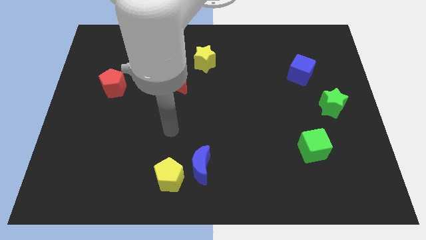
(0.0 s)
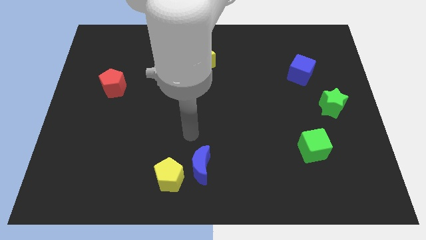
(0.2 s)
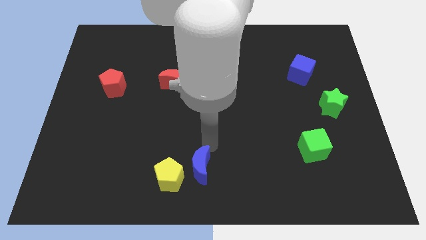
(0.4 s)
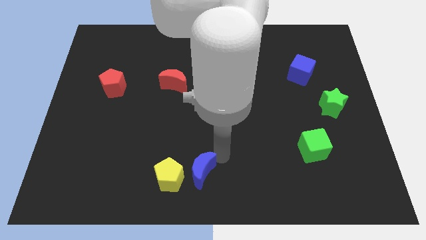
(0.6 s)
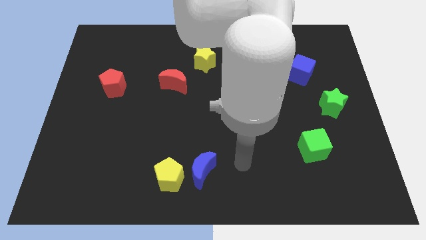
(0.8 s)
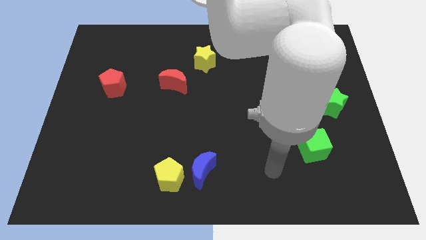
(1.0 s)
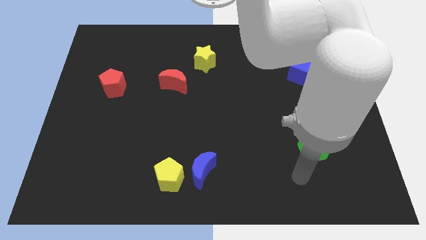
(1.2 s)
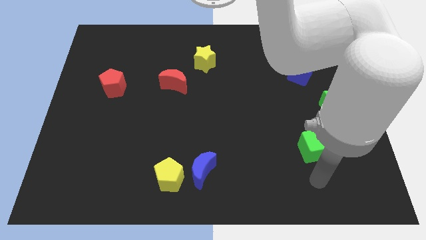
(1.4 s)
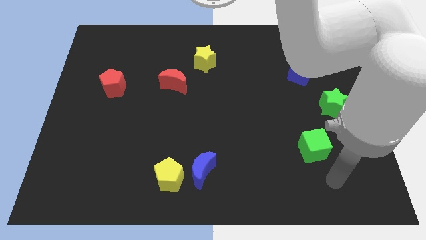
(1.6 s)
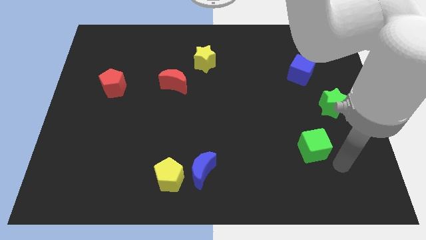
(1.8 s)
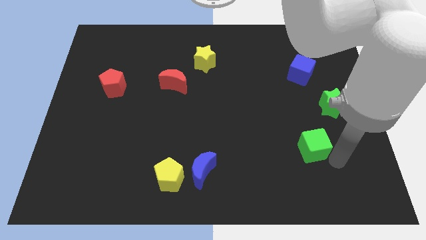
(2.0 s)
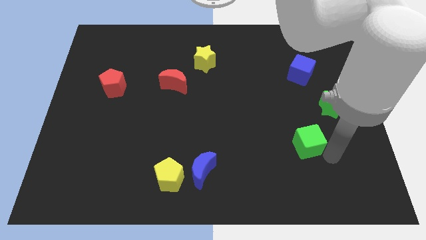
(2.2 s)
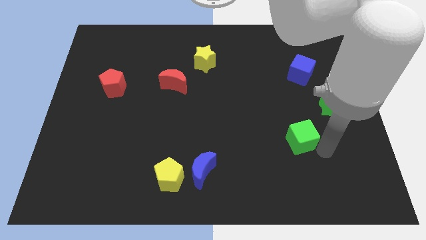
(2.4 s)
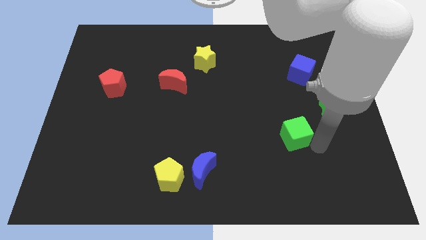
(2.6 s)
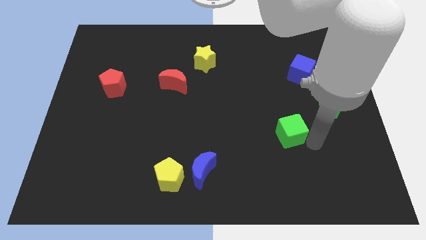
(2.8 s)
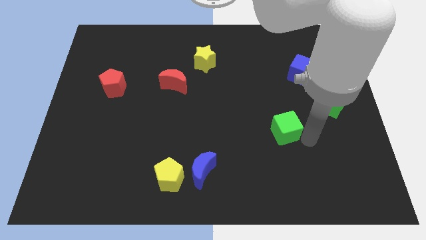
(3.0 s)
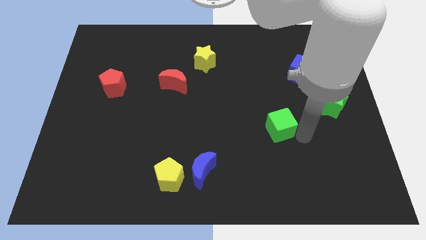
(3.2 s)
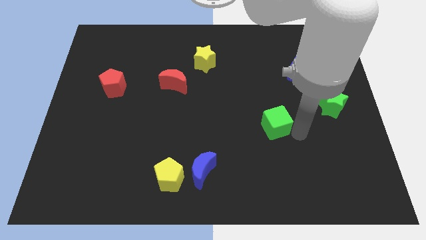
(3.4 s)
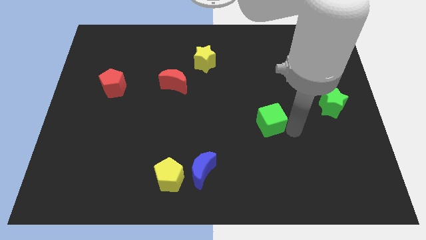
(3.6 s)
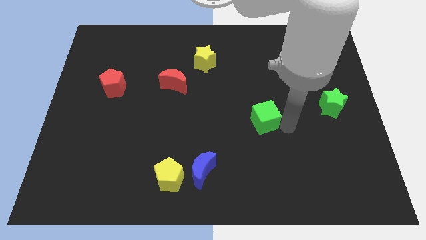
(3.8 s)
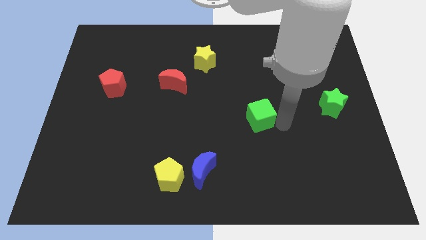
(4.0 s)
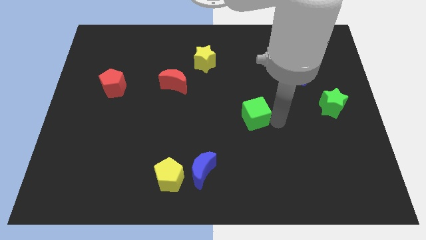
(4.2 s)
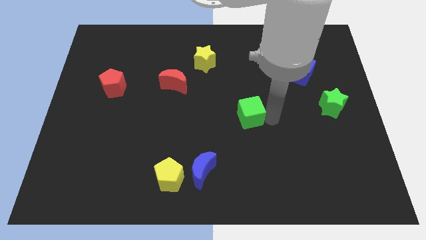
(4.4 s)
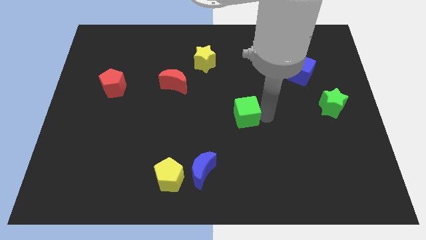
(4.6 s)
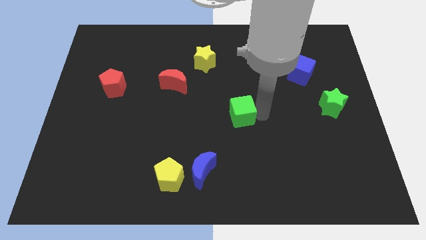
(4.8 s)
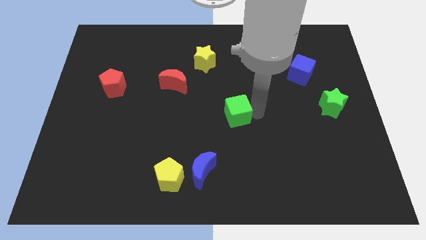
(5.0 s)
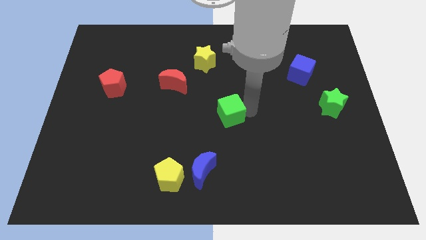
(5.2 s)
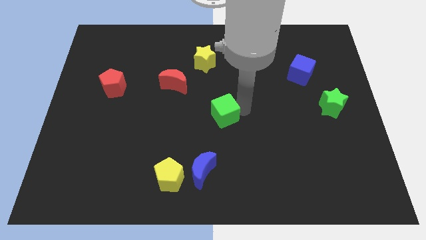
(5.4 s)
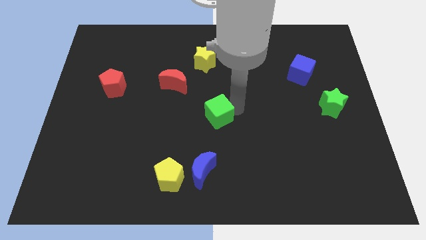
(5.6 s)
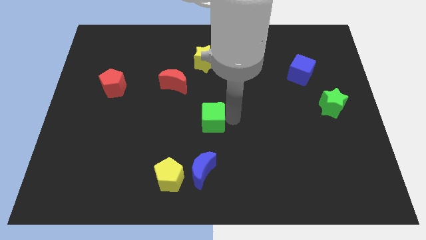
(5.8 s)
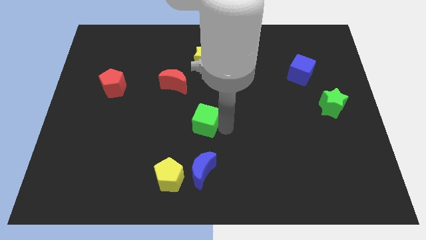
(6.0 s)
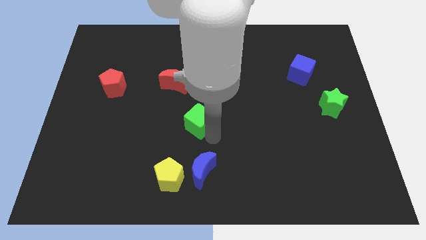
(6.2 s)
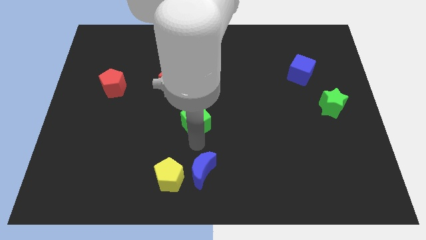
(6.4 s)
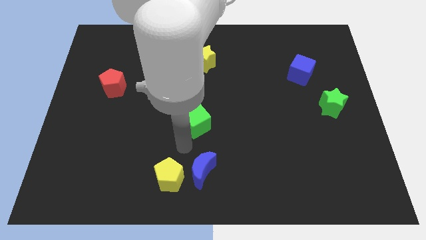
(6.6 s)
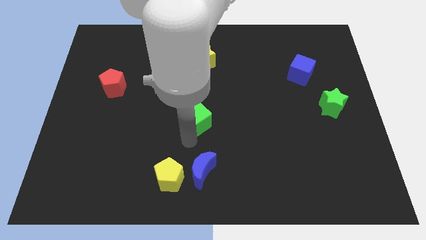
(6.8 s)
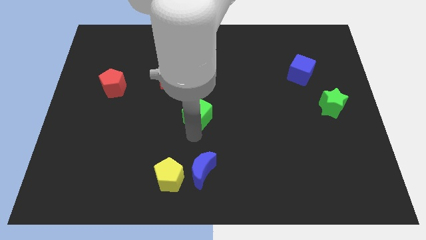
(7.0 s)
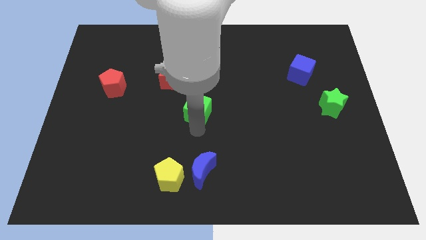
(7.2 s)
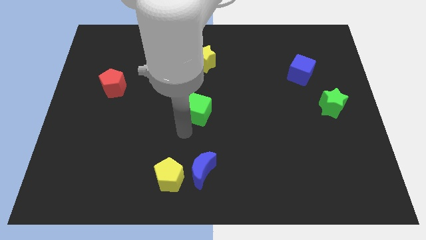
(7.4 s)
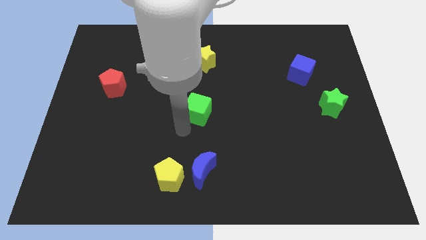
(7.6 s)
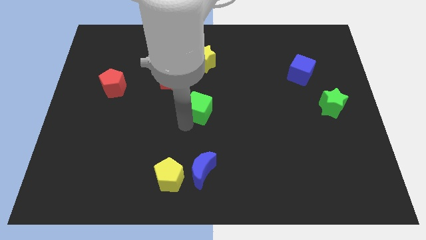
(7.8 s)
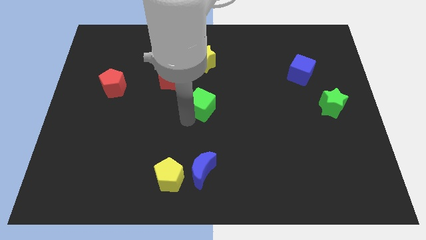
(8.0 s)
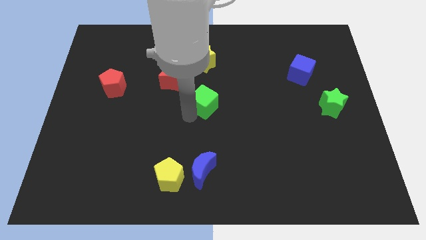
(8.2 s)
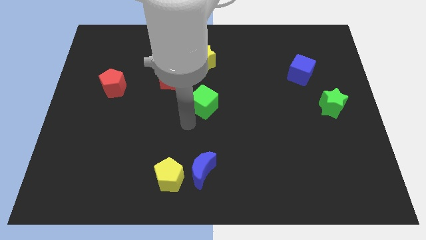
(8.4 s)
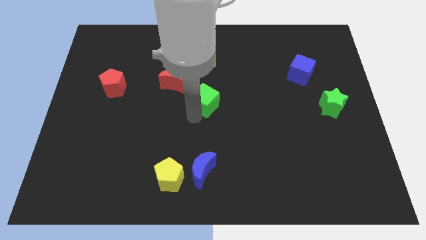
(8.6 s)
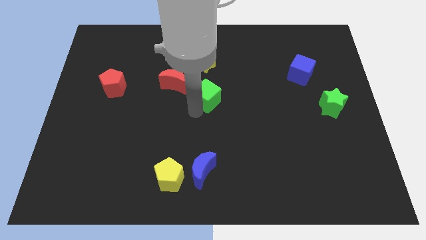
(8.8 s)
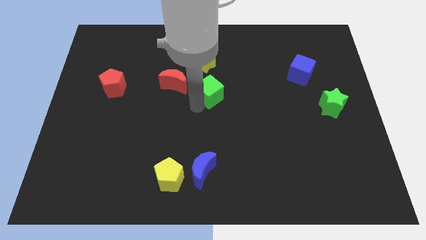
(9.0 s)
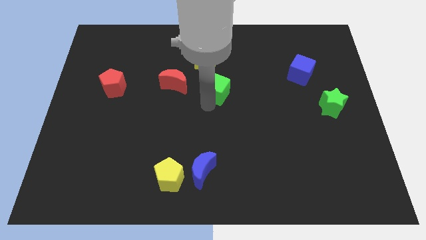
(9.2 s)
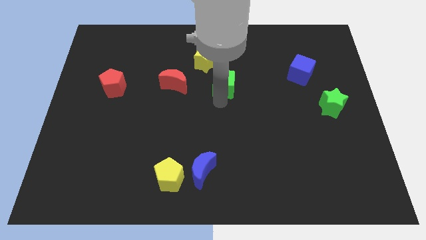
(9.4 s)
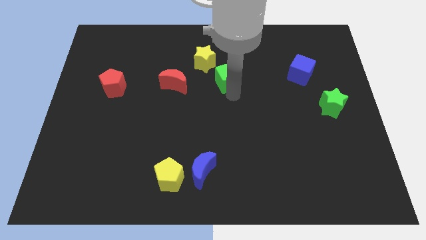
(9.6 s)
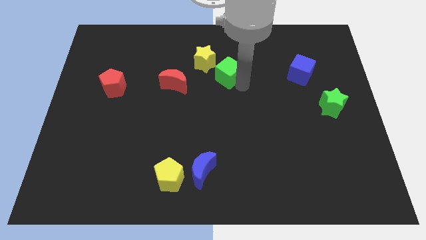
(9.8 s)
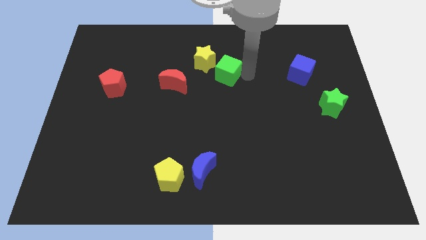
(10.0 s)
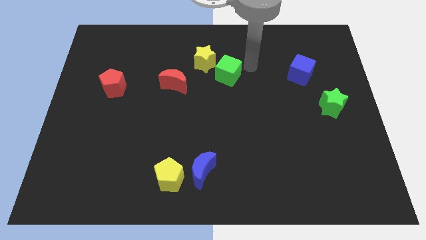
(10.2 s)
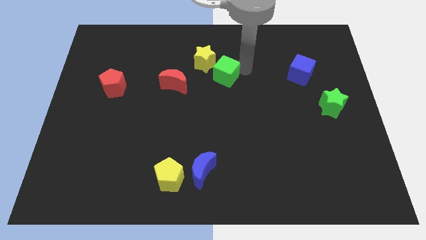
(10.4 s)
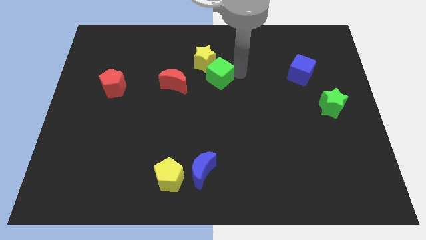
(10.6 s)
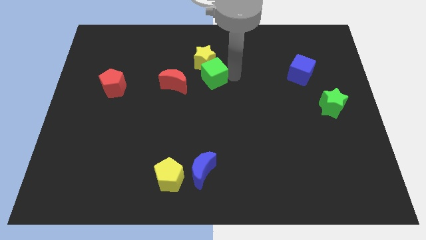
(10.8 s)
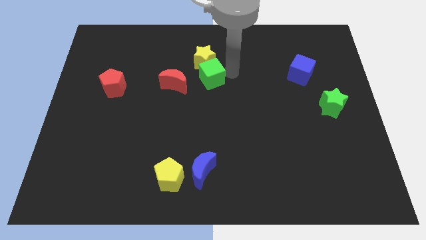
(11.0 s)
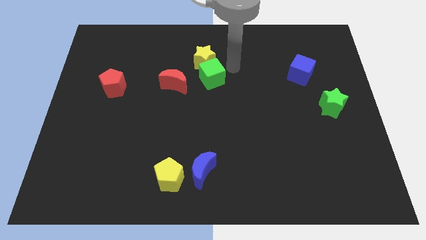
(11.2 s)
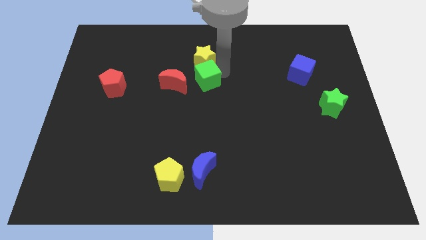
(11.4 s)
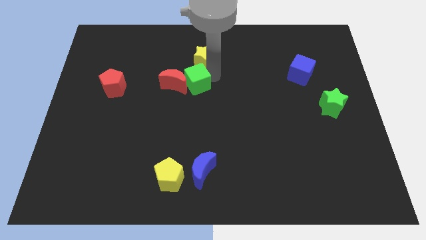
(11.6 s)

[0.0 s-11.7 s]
put the green cube next to the red moon

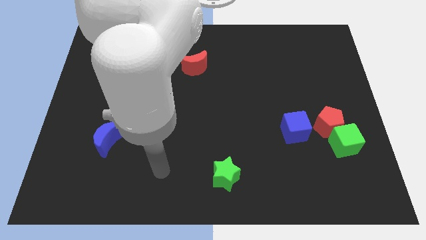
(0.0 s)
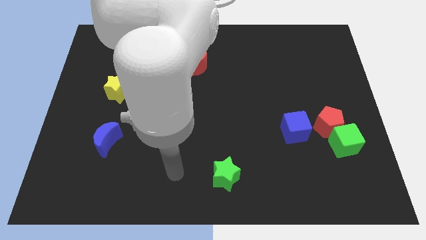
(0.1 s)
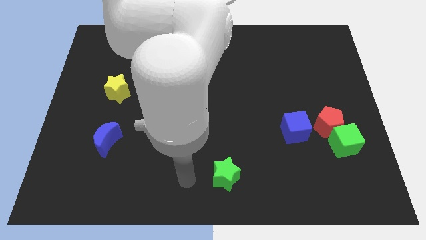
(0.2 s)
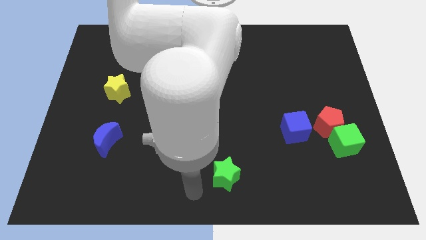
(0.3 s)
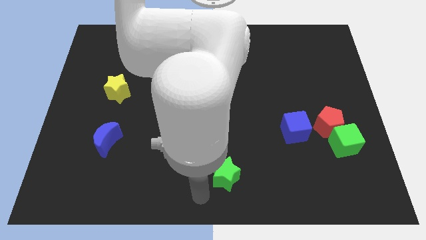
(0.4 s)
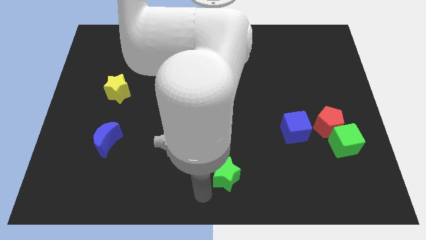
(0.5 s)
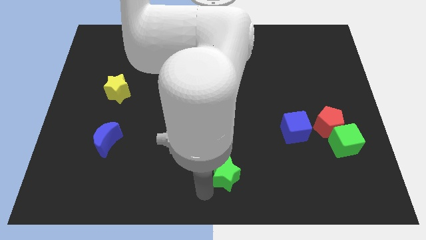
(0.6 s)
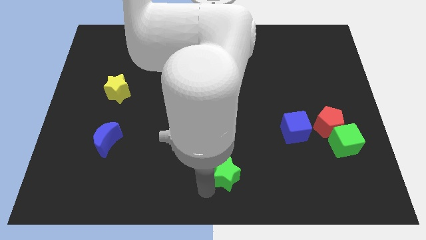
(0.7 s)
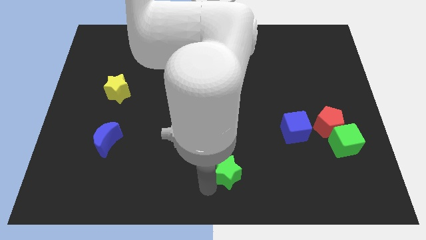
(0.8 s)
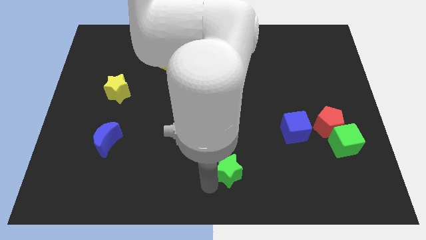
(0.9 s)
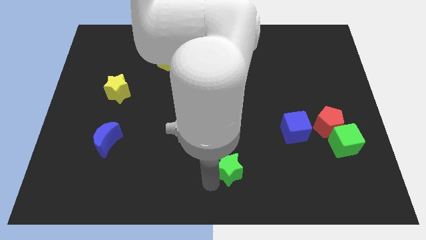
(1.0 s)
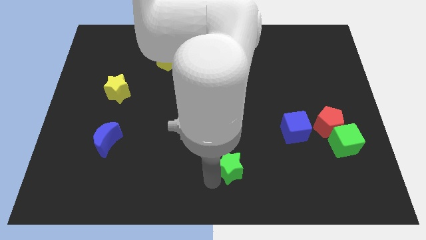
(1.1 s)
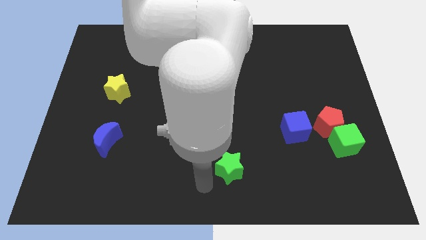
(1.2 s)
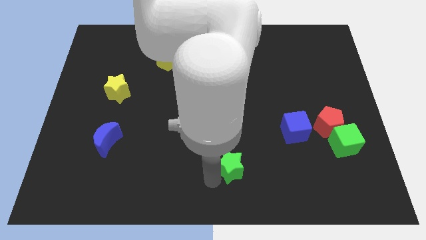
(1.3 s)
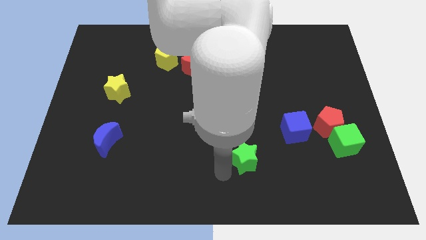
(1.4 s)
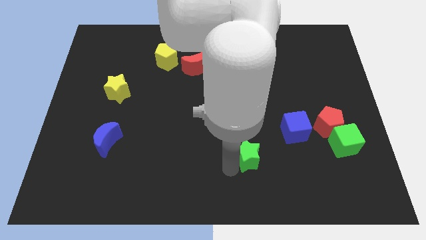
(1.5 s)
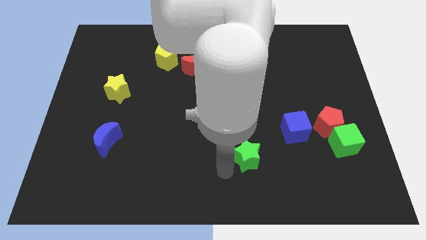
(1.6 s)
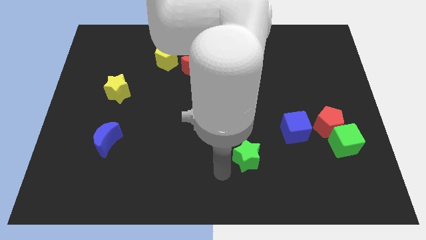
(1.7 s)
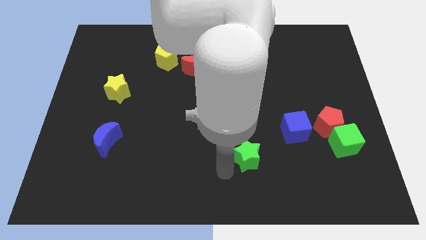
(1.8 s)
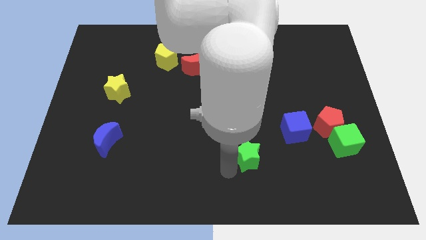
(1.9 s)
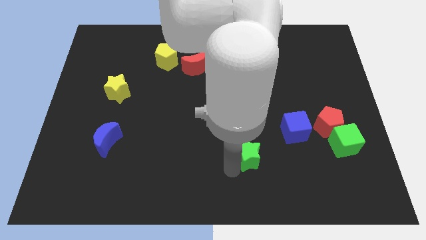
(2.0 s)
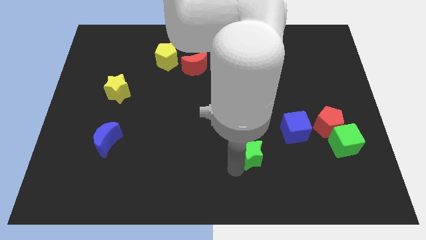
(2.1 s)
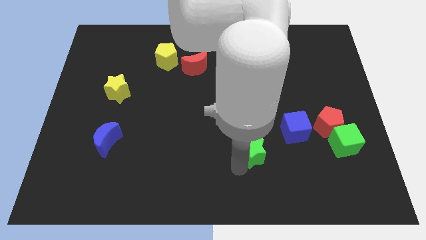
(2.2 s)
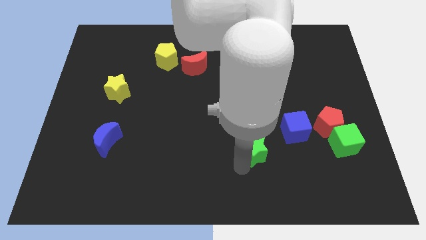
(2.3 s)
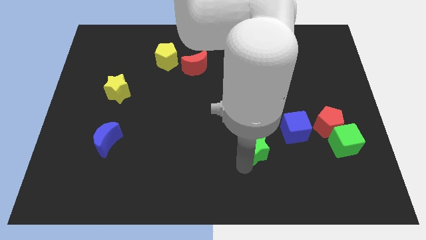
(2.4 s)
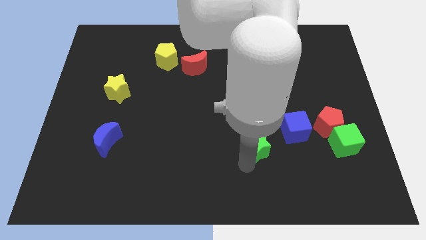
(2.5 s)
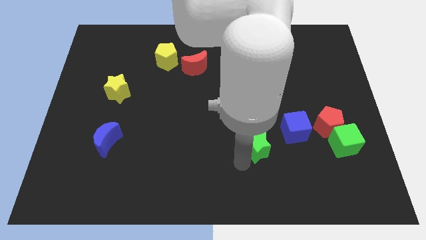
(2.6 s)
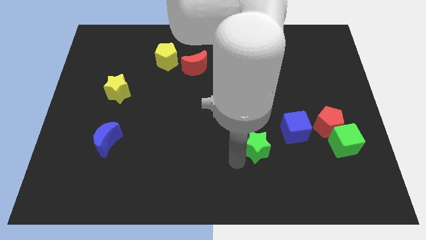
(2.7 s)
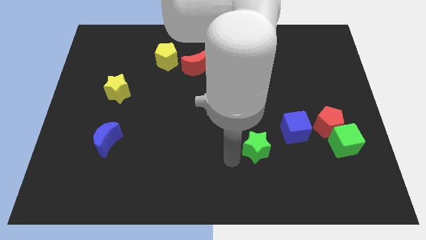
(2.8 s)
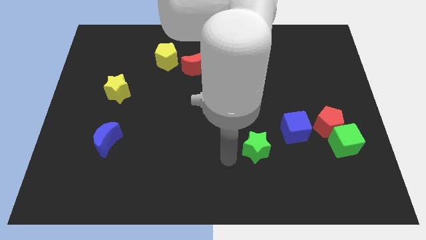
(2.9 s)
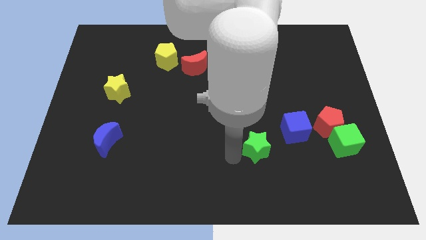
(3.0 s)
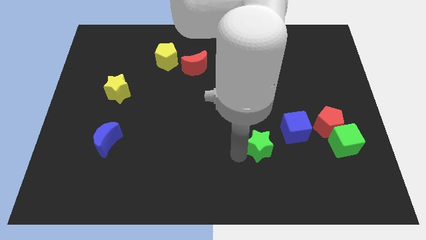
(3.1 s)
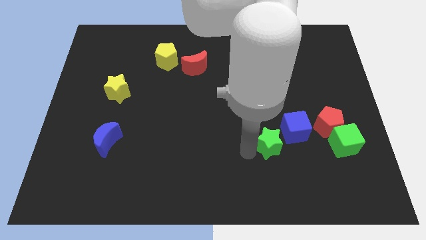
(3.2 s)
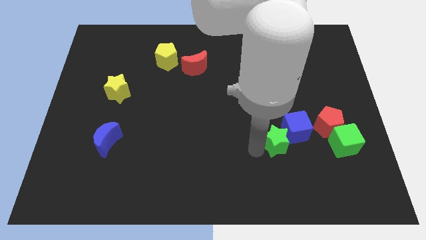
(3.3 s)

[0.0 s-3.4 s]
move the green star next to the blue cube
